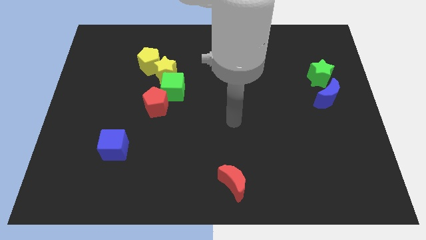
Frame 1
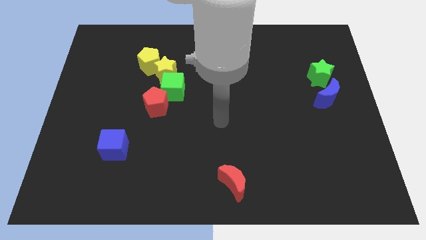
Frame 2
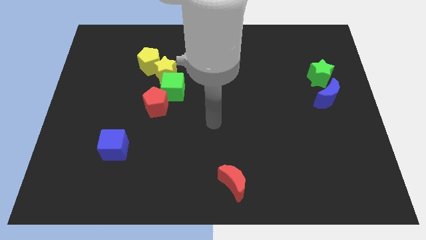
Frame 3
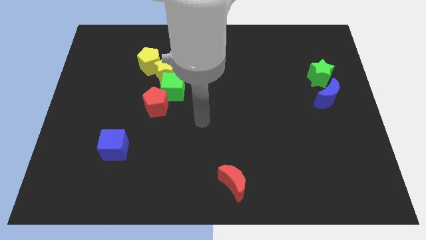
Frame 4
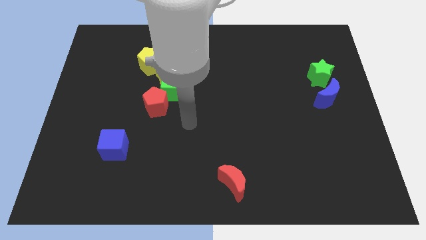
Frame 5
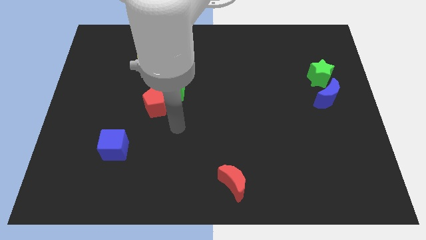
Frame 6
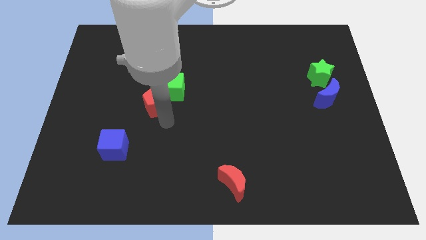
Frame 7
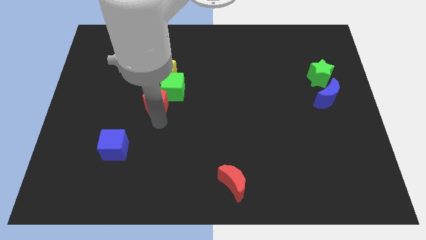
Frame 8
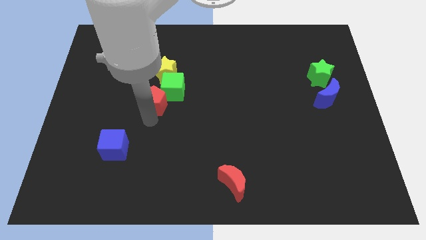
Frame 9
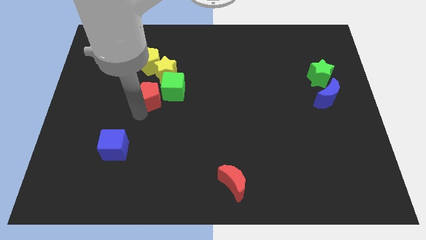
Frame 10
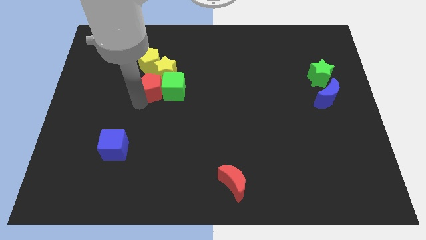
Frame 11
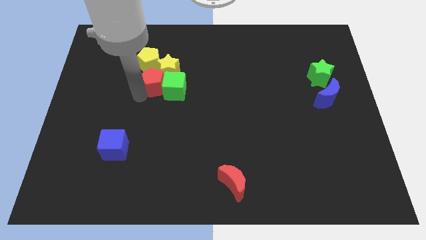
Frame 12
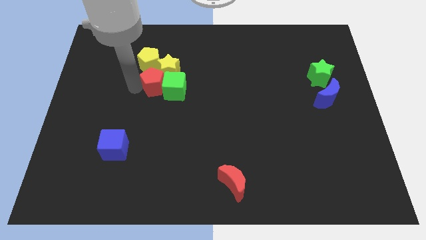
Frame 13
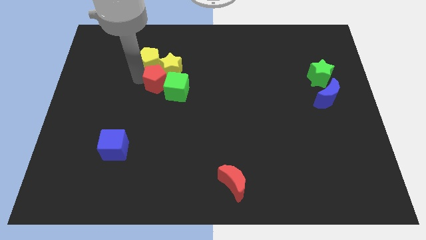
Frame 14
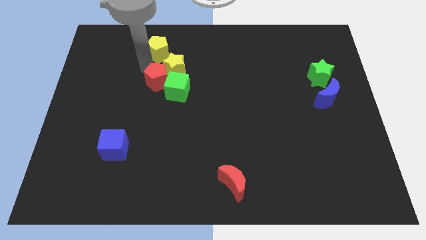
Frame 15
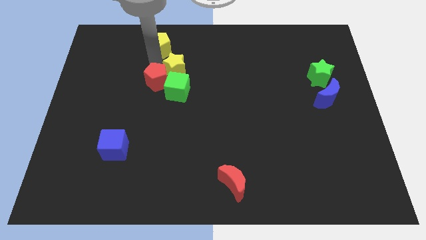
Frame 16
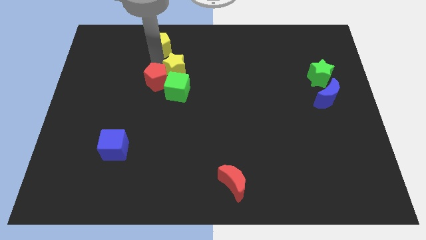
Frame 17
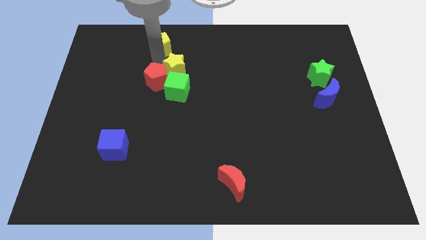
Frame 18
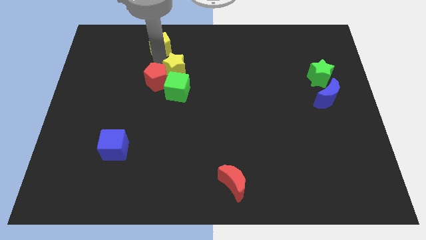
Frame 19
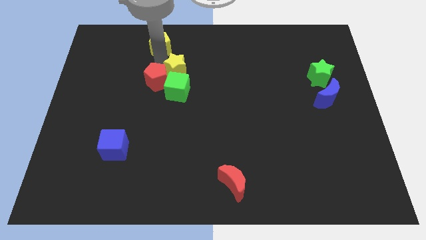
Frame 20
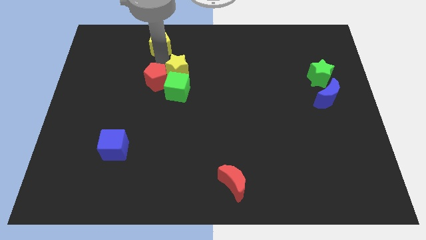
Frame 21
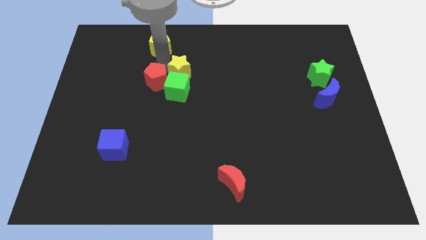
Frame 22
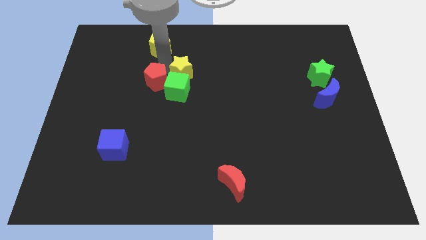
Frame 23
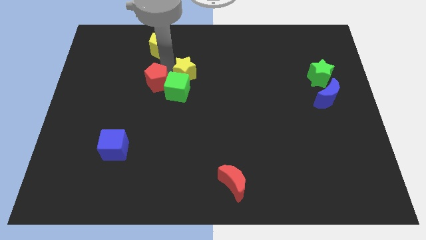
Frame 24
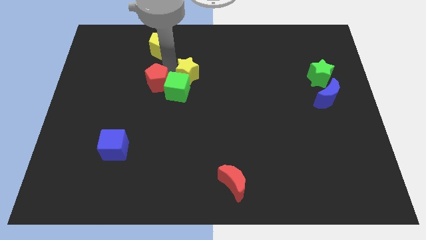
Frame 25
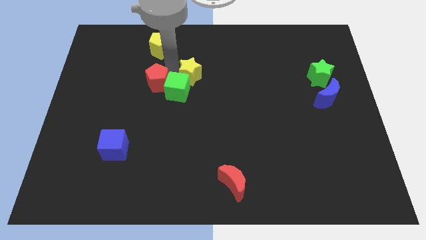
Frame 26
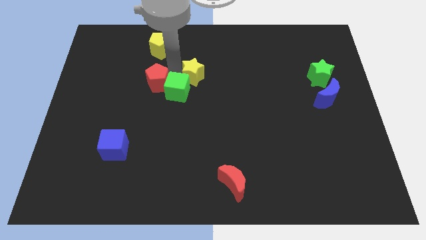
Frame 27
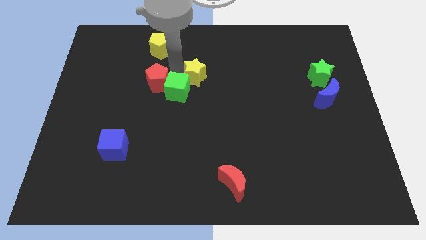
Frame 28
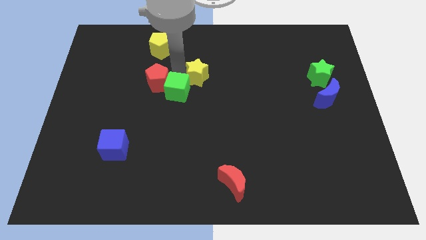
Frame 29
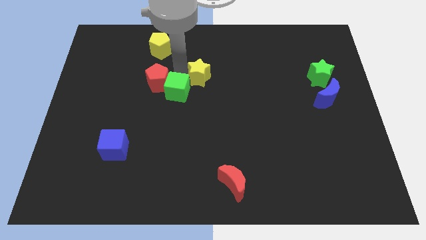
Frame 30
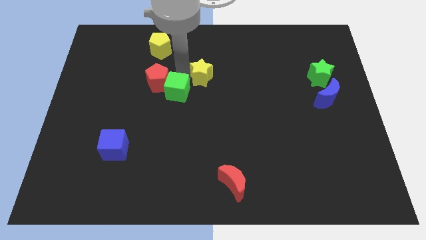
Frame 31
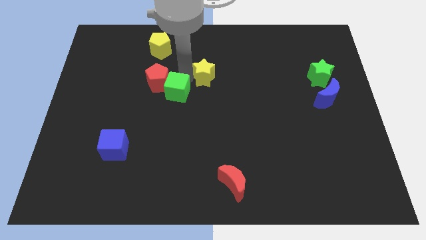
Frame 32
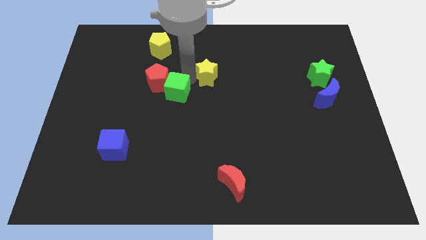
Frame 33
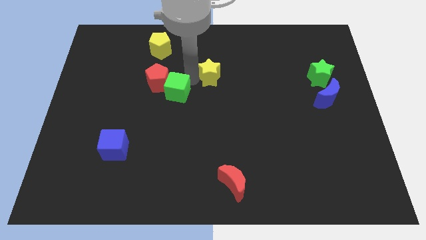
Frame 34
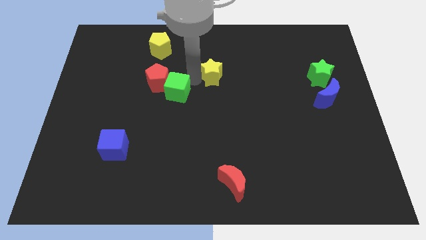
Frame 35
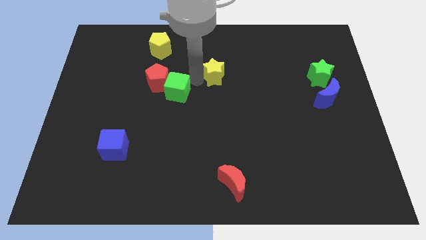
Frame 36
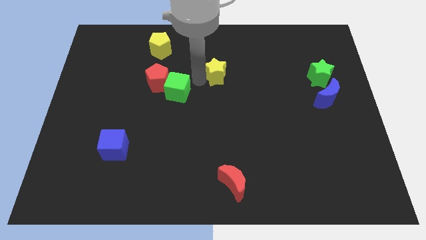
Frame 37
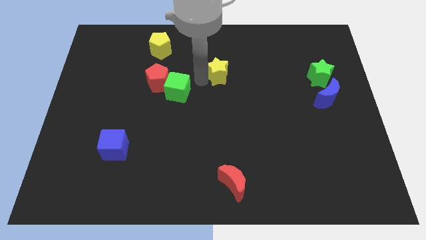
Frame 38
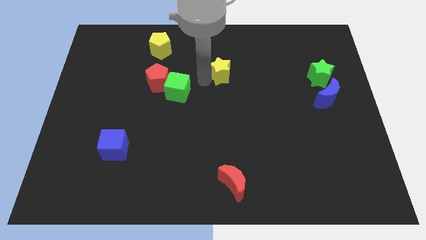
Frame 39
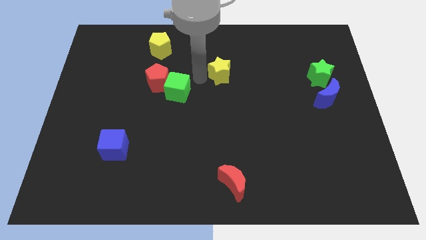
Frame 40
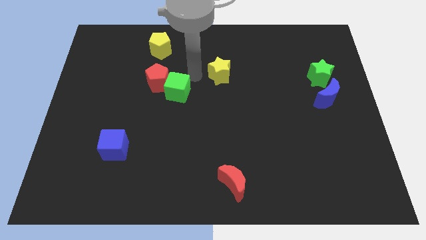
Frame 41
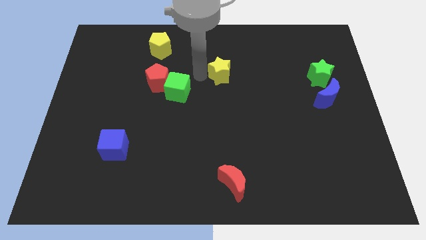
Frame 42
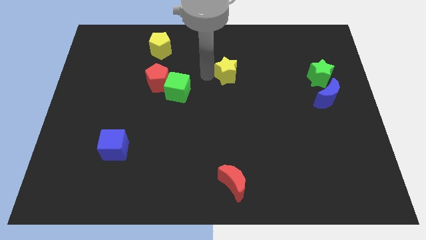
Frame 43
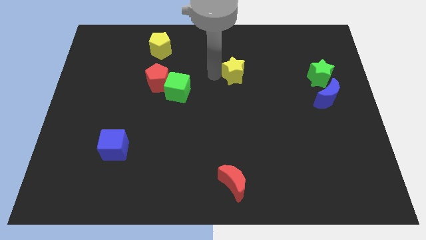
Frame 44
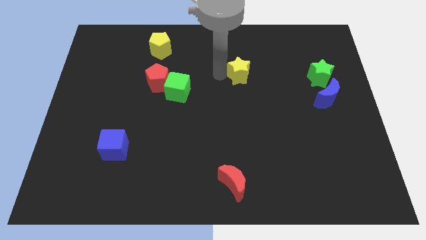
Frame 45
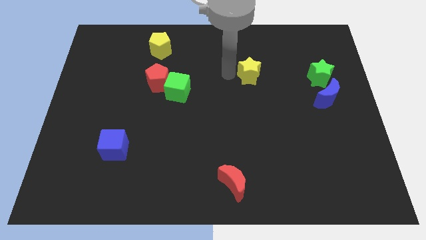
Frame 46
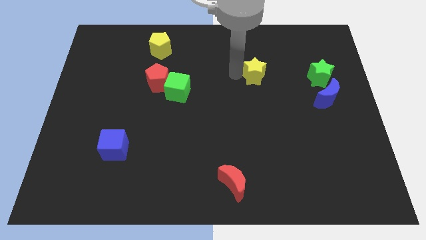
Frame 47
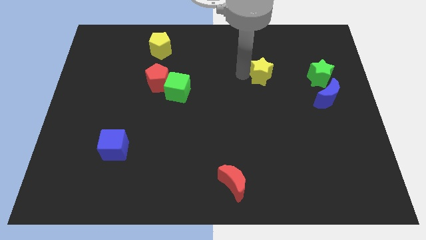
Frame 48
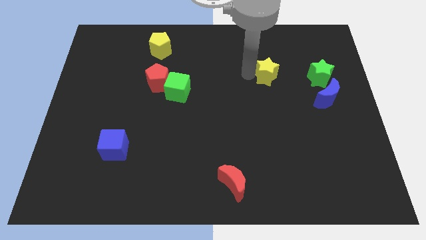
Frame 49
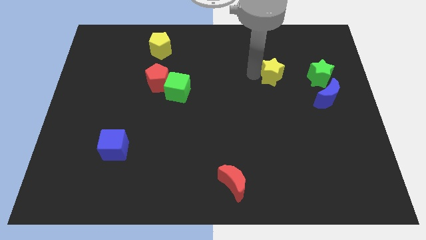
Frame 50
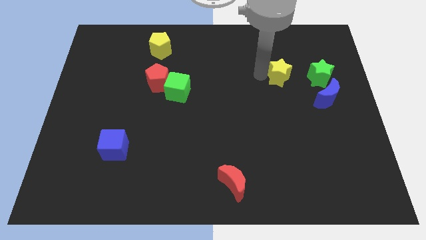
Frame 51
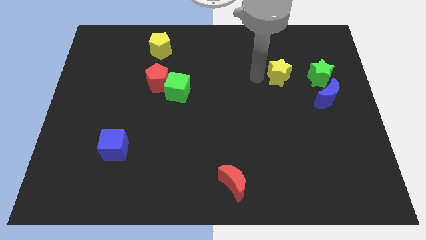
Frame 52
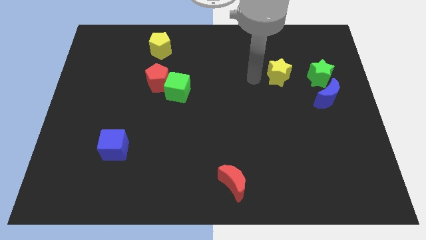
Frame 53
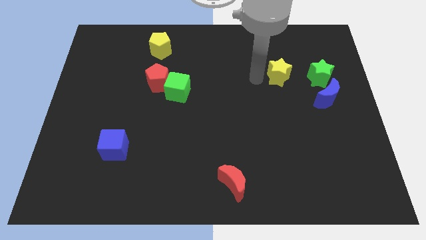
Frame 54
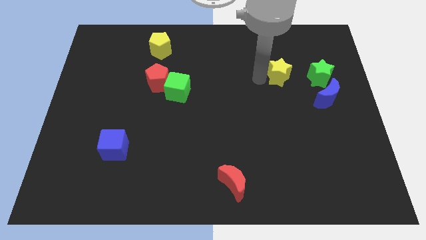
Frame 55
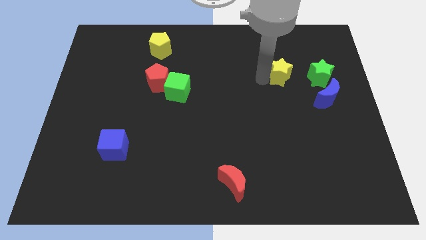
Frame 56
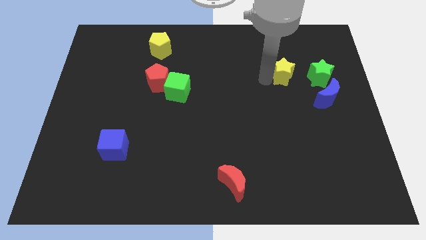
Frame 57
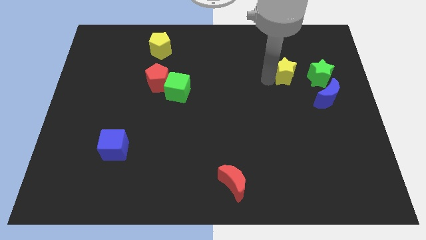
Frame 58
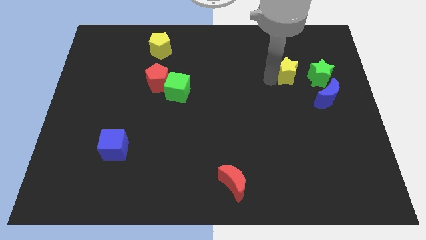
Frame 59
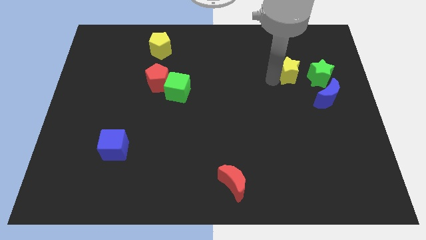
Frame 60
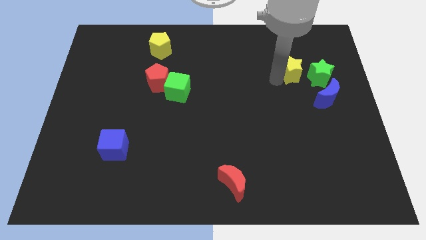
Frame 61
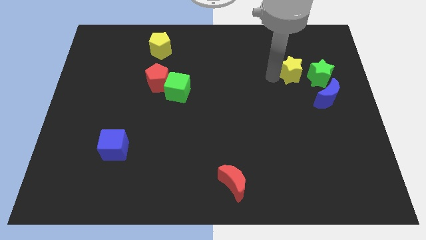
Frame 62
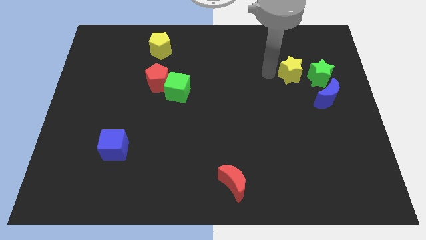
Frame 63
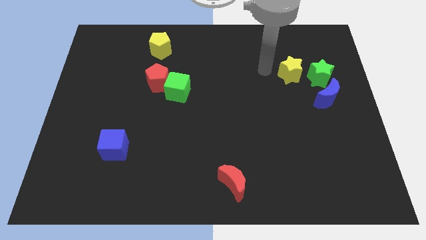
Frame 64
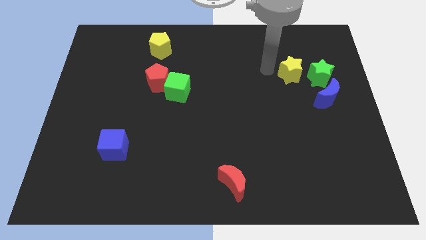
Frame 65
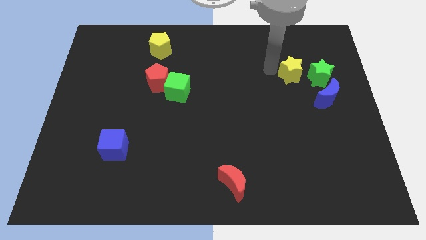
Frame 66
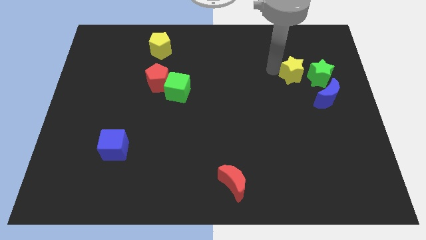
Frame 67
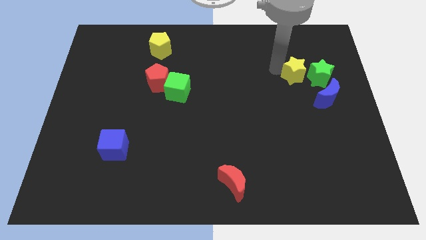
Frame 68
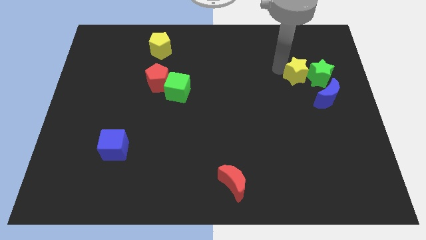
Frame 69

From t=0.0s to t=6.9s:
put the yellow star close to the green star
